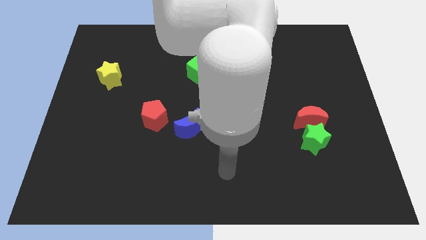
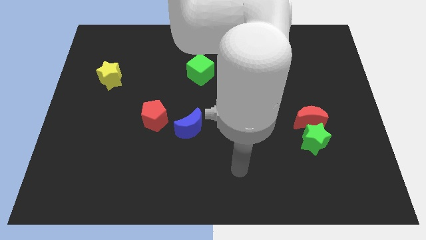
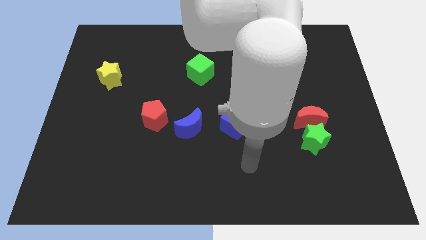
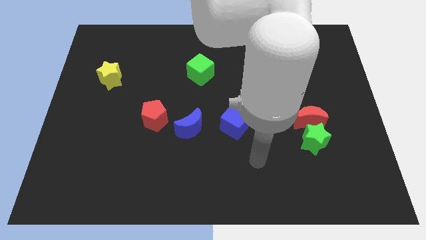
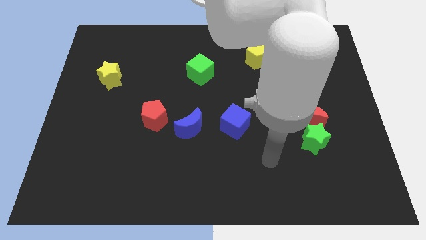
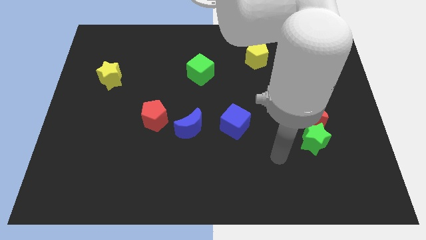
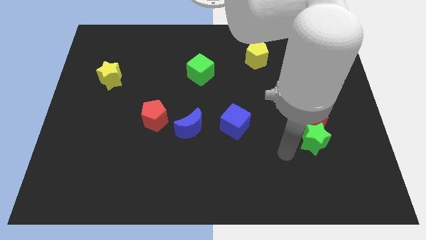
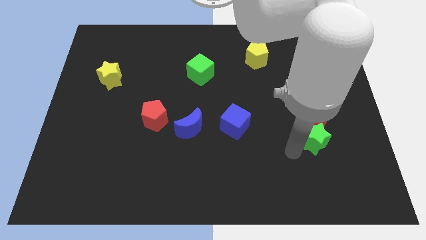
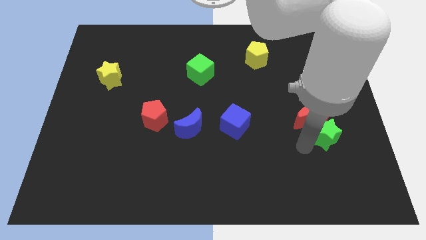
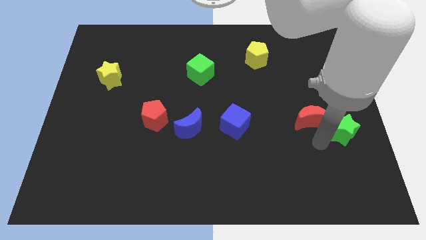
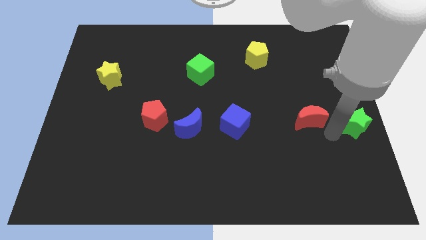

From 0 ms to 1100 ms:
pull the red moon apart from the green star

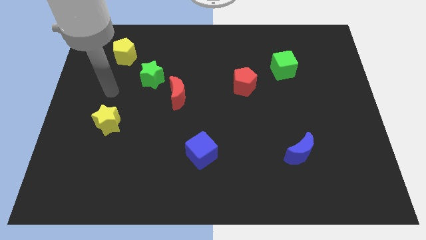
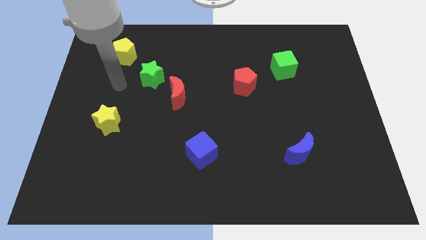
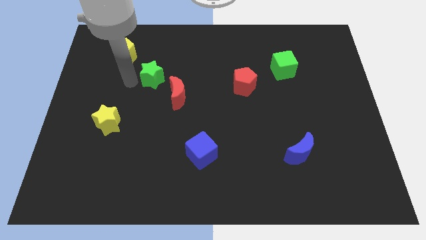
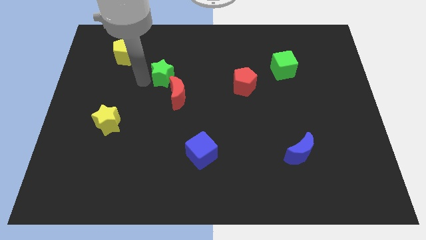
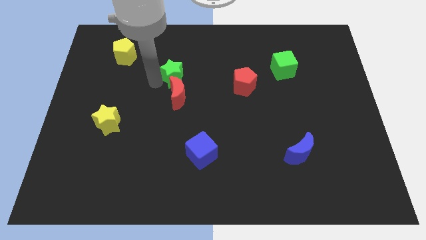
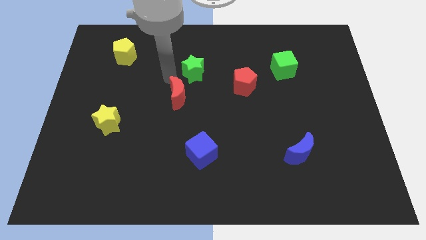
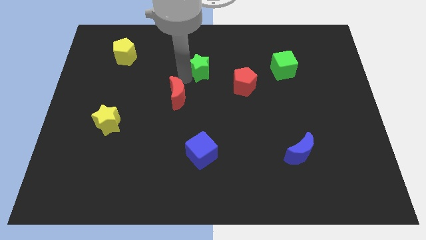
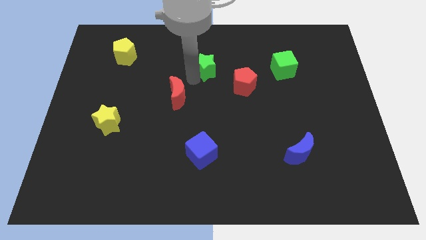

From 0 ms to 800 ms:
move the red moon away from the green star

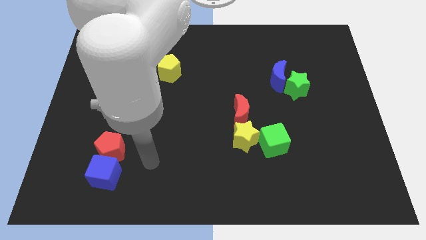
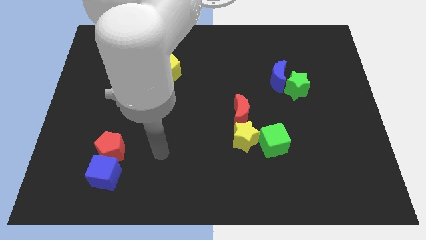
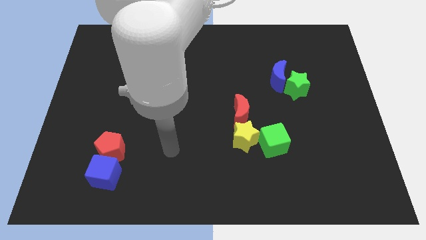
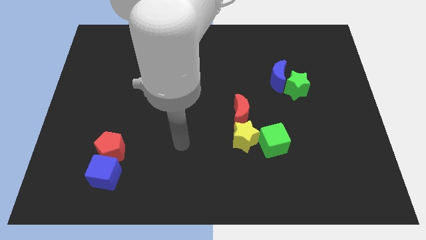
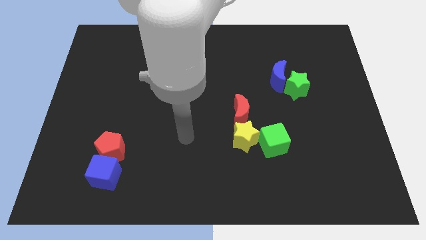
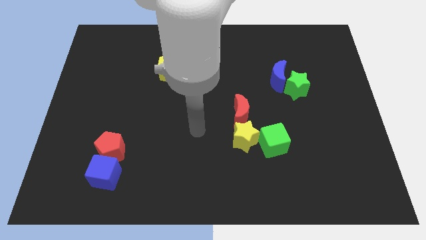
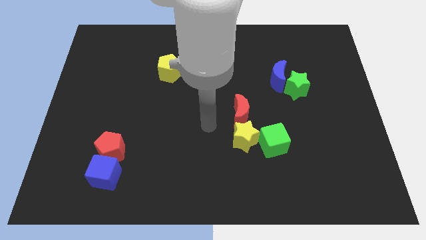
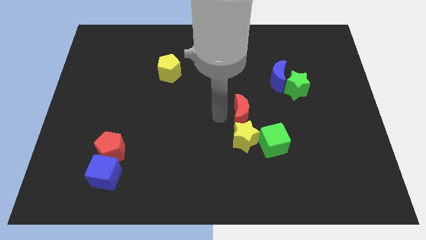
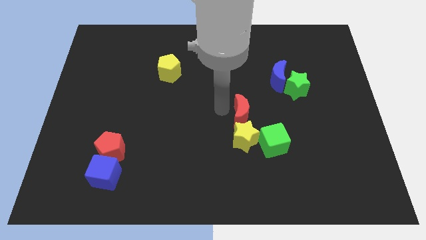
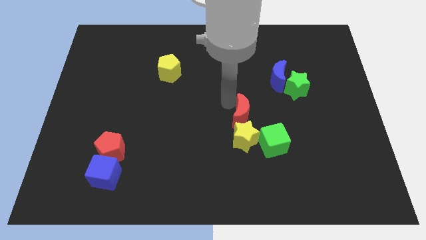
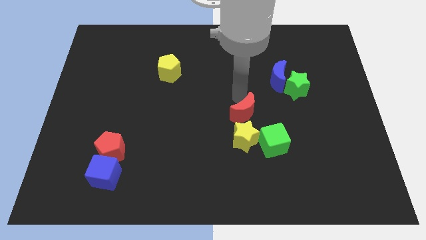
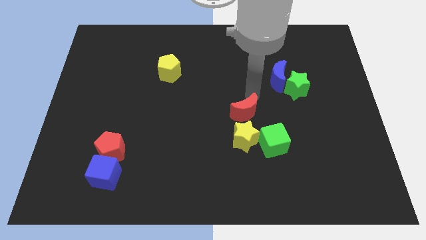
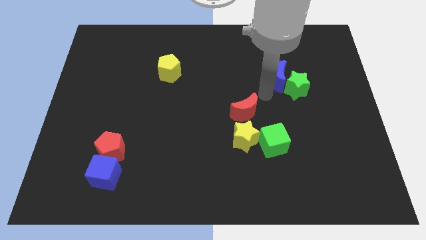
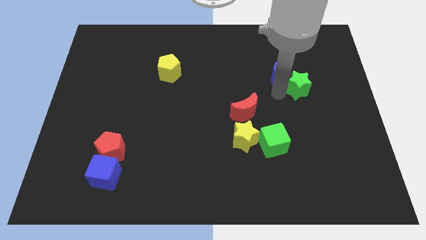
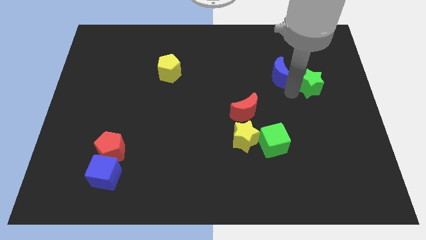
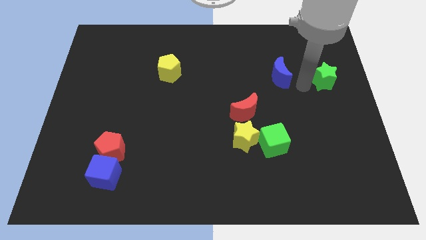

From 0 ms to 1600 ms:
separate the blue moon from the green star

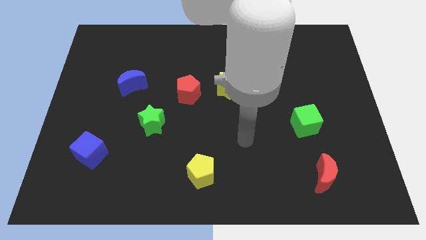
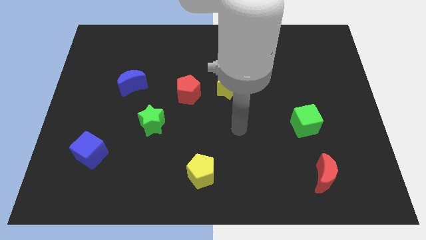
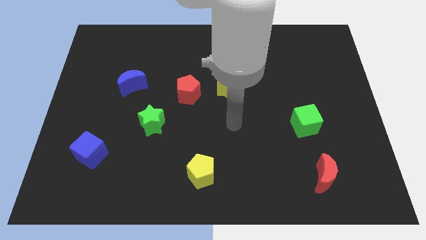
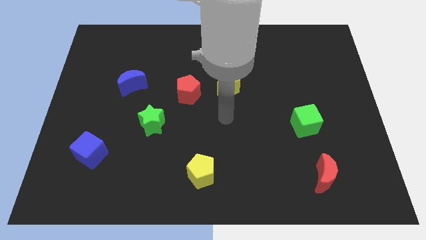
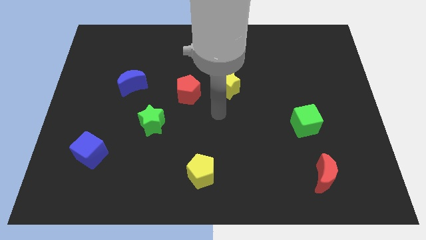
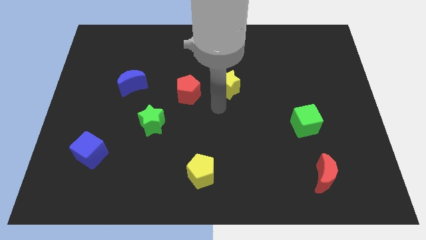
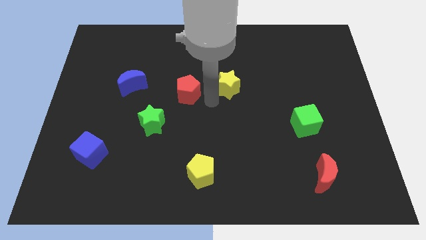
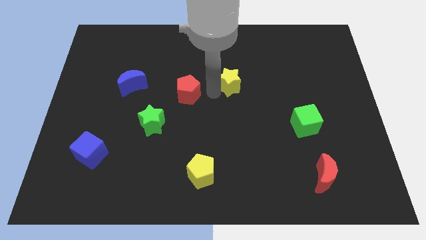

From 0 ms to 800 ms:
separate the red pentagon from the yellow star

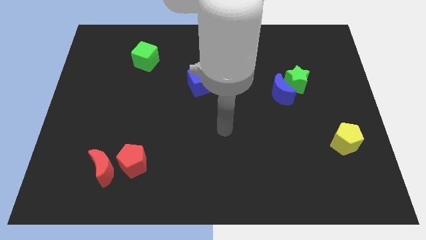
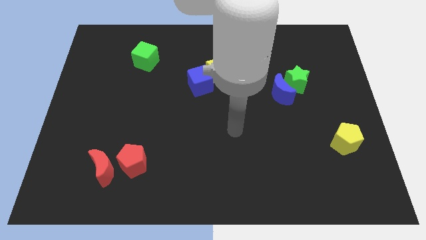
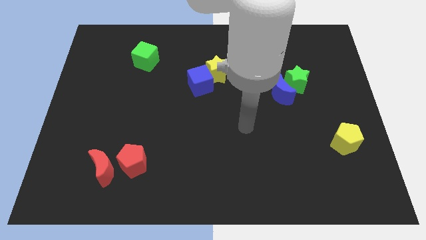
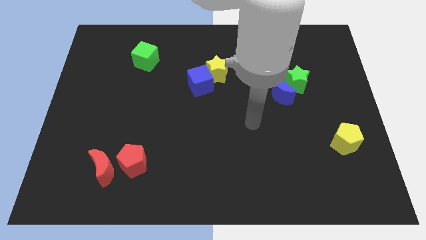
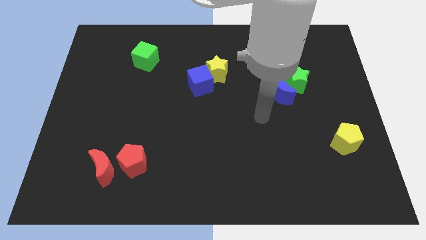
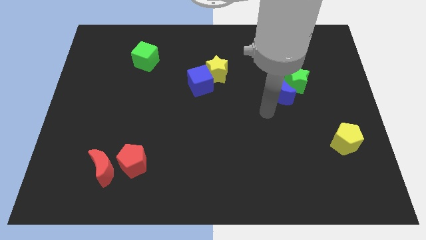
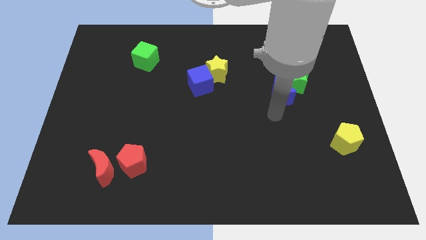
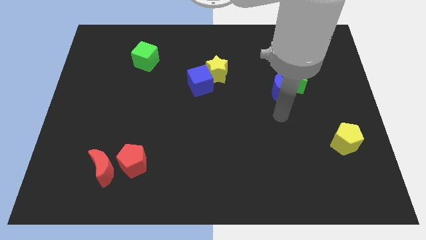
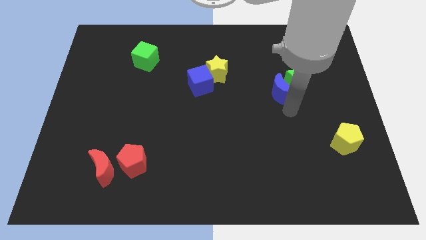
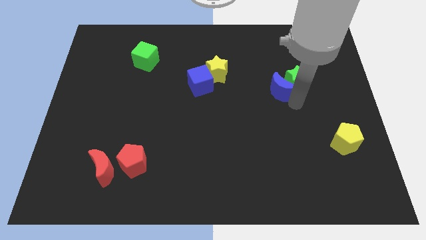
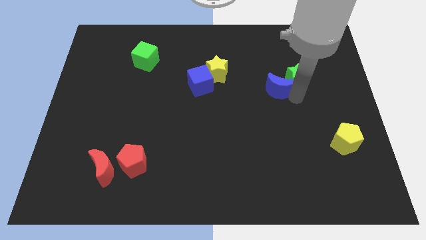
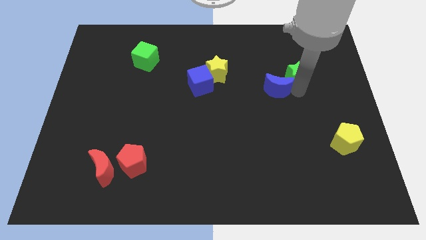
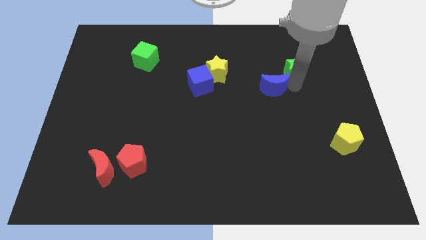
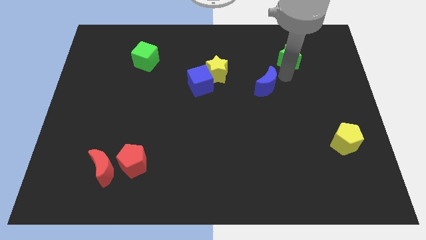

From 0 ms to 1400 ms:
pull the blue moon apart from the green star

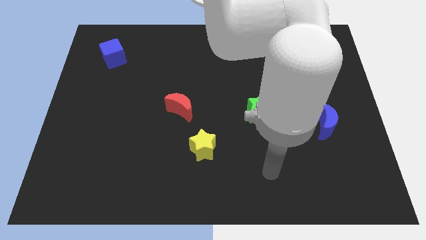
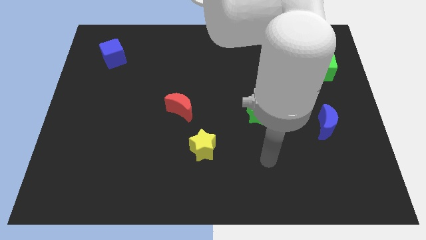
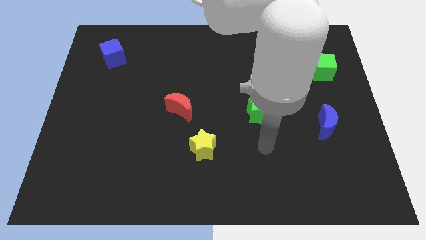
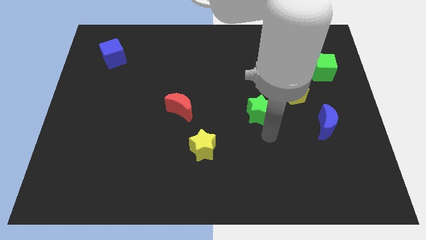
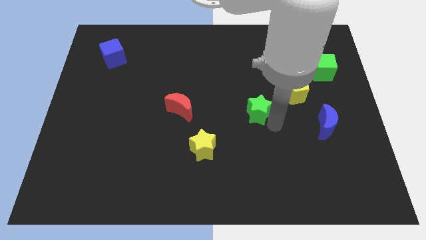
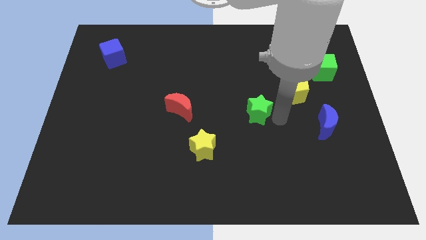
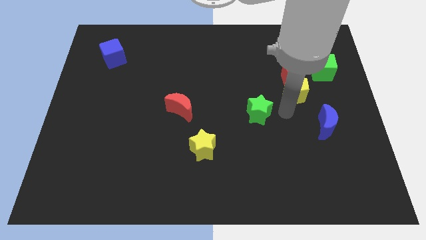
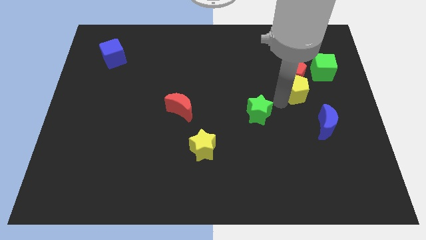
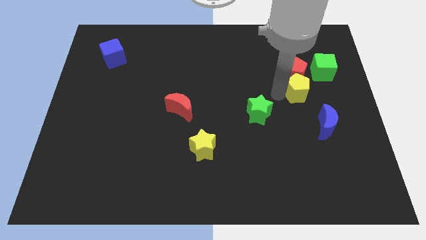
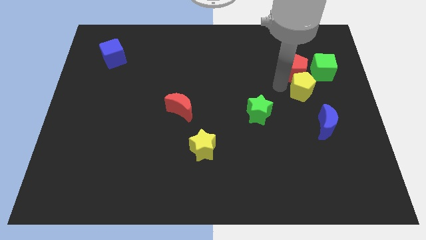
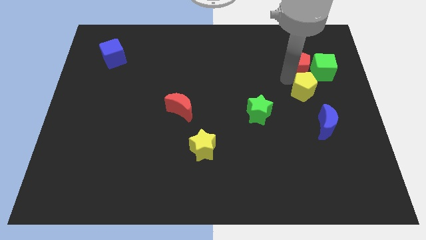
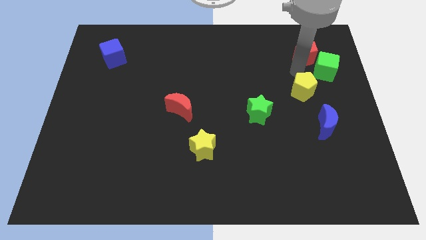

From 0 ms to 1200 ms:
move the yellow pentagon away from the red pentagon

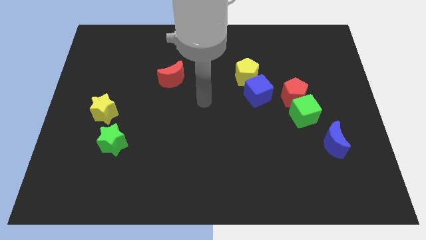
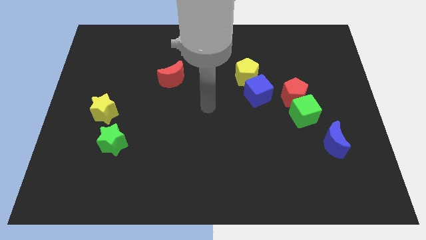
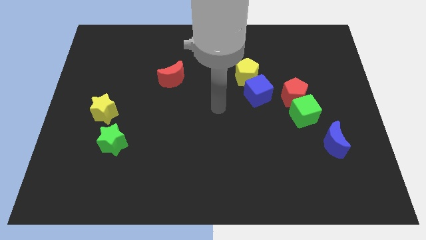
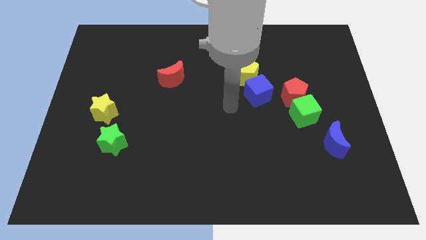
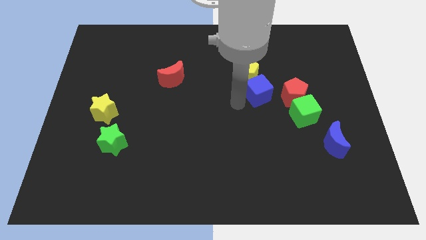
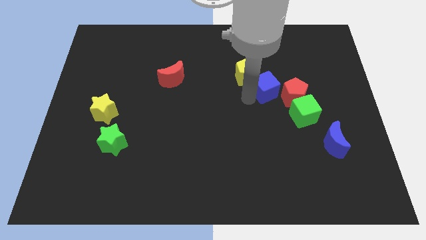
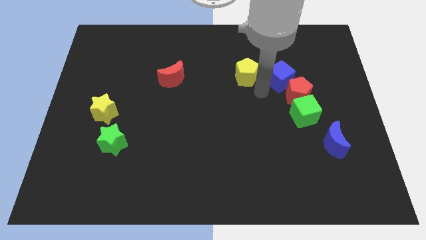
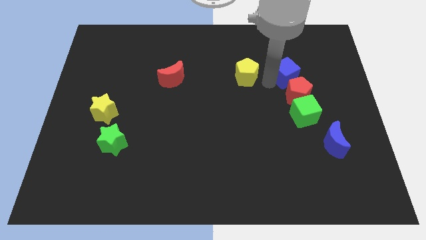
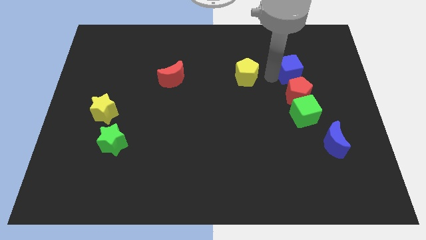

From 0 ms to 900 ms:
pull the yellow pentagon apart from the blue cube

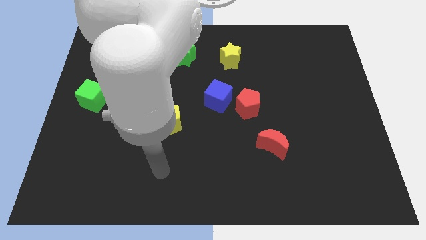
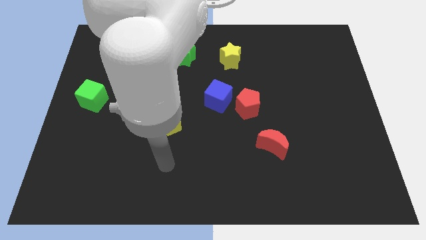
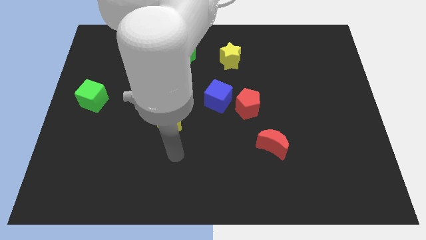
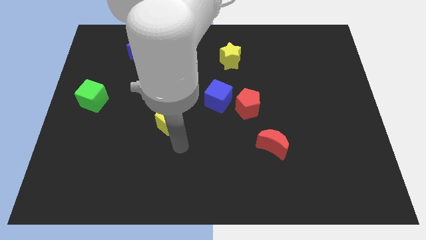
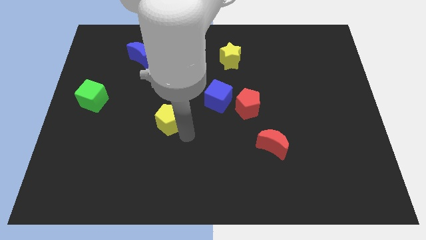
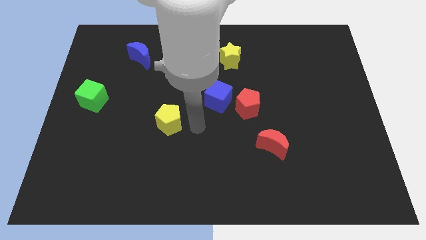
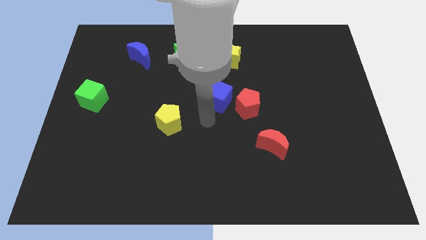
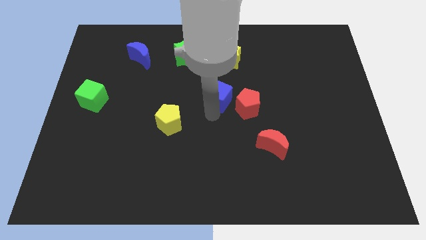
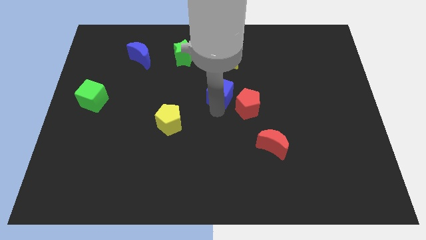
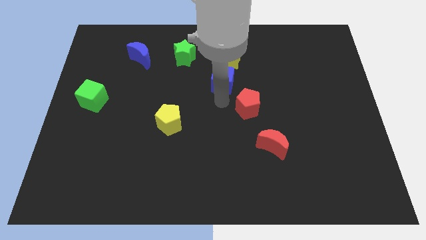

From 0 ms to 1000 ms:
move the red pentagon away from the blue cube

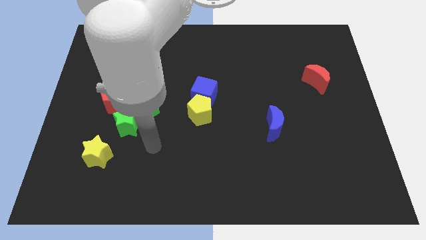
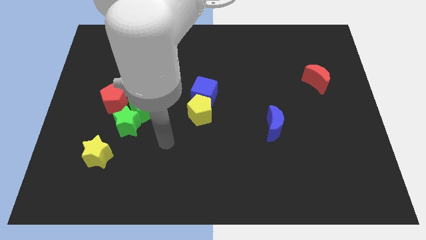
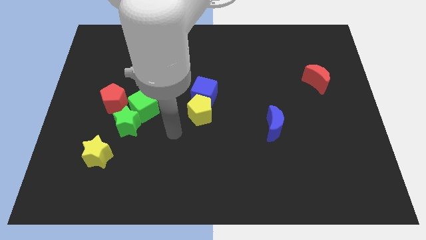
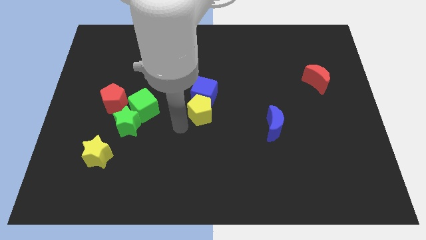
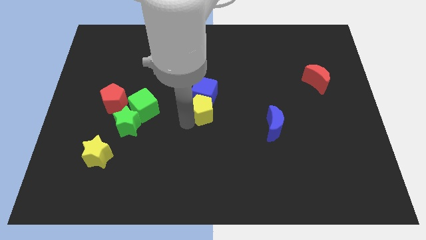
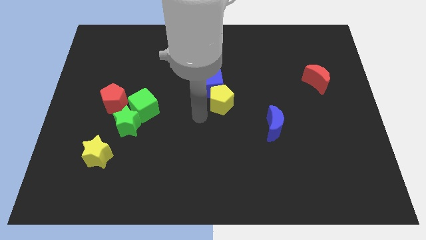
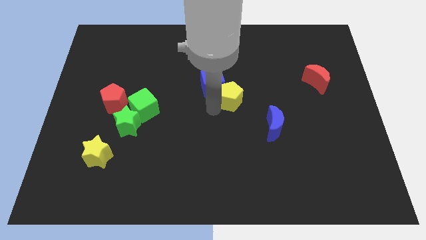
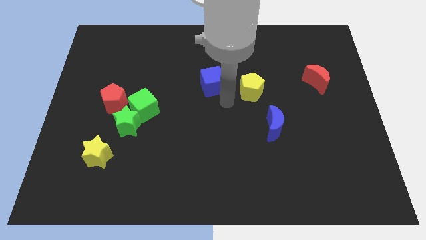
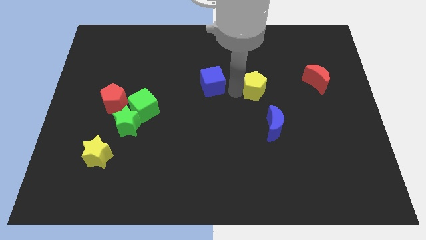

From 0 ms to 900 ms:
pull the blue cube apart from the yellow pentagon
